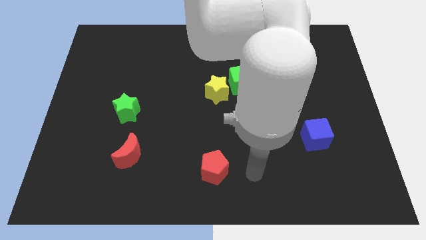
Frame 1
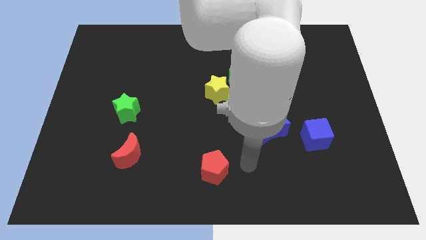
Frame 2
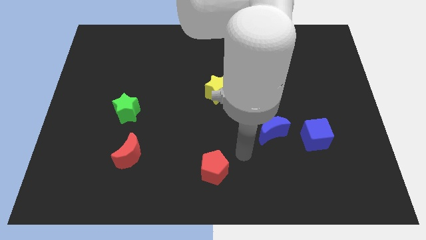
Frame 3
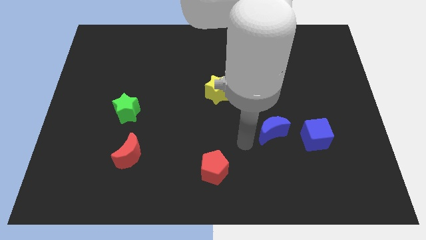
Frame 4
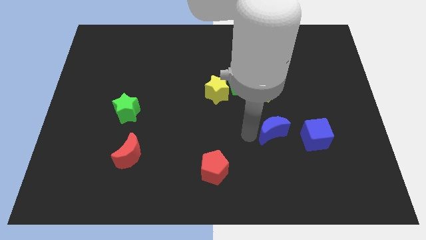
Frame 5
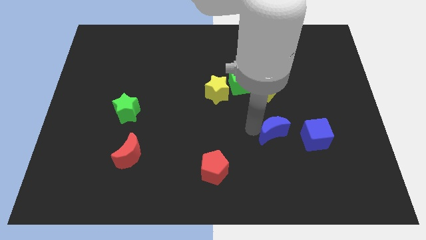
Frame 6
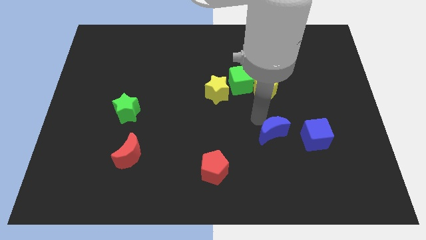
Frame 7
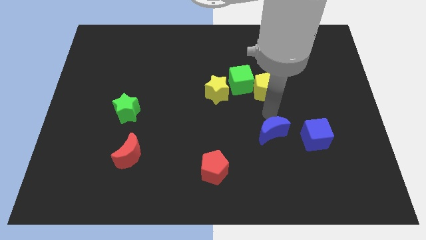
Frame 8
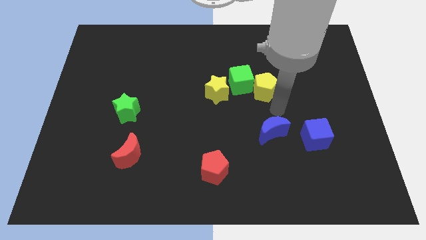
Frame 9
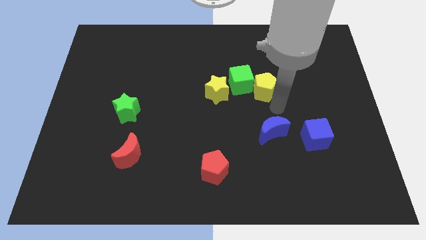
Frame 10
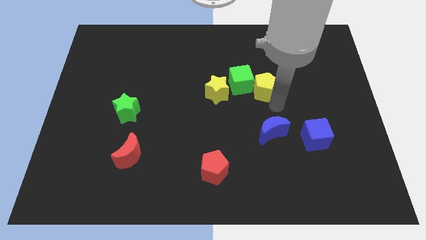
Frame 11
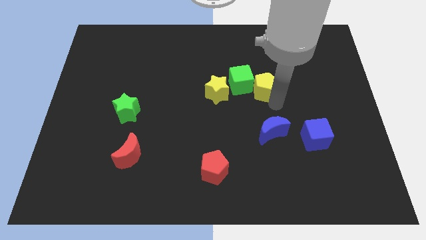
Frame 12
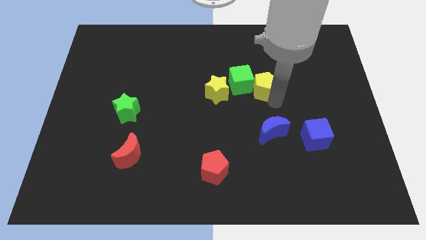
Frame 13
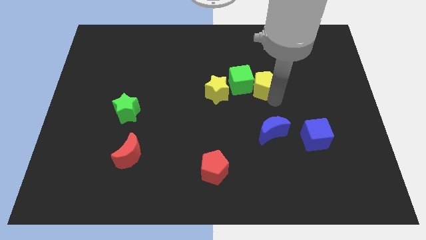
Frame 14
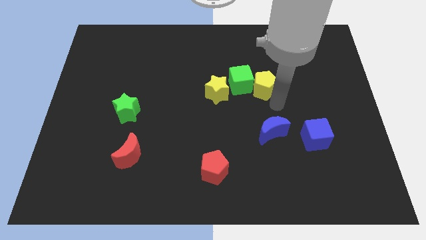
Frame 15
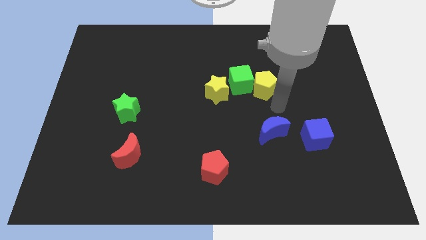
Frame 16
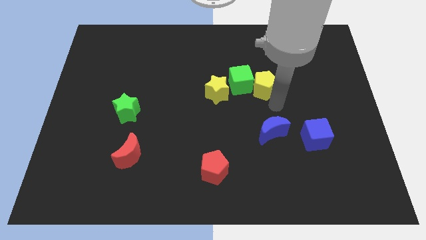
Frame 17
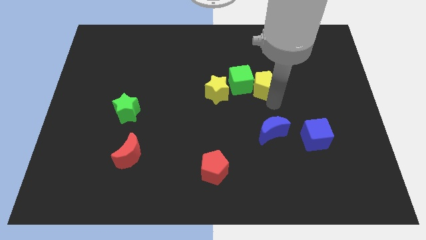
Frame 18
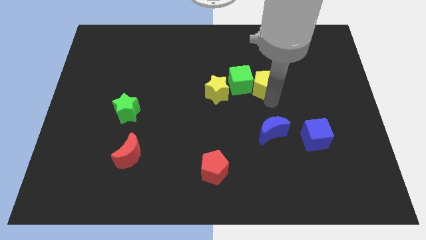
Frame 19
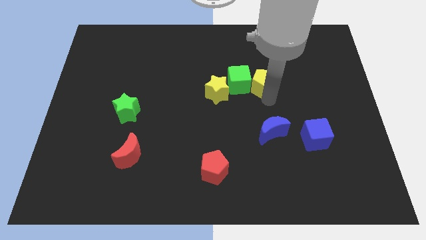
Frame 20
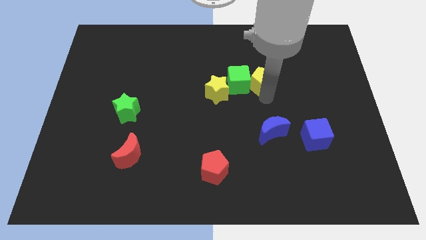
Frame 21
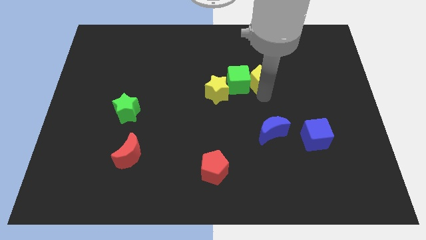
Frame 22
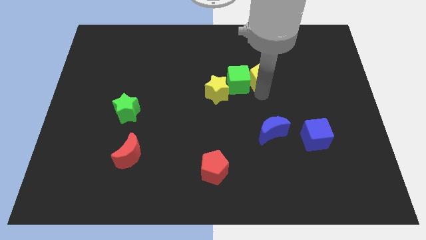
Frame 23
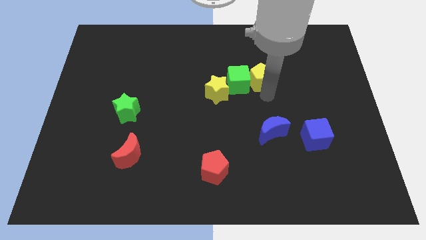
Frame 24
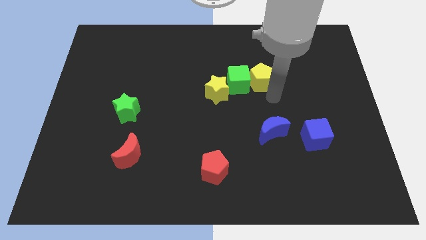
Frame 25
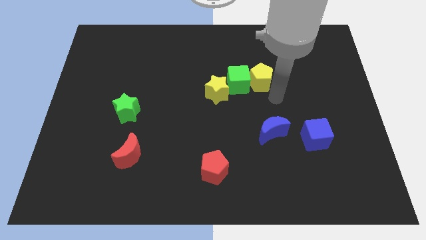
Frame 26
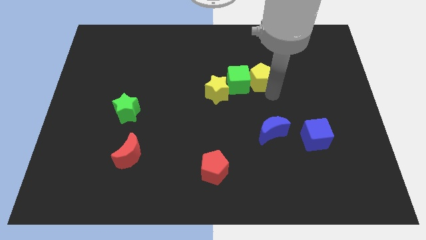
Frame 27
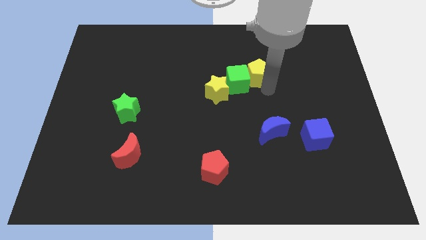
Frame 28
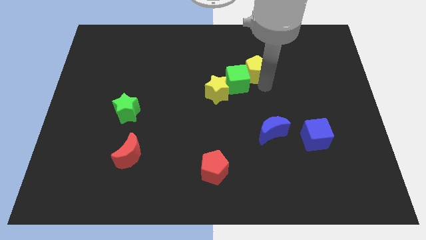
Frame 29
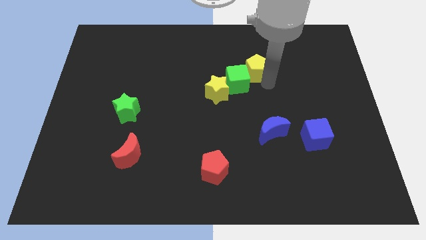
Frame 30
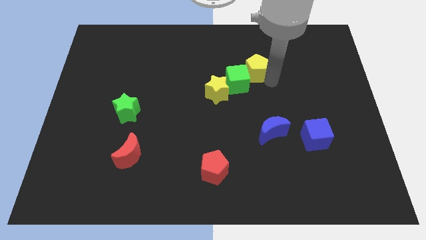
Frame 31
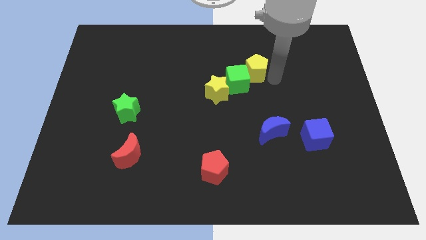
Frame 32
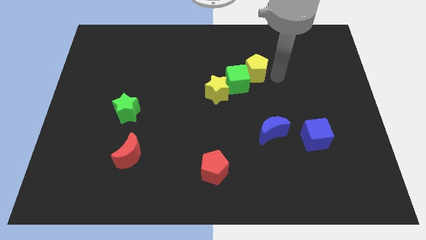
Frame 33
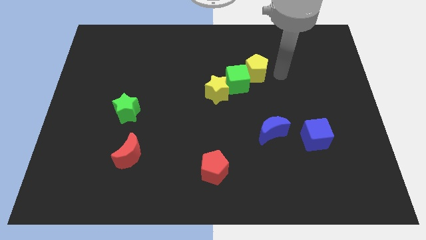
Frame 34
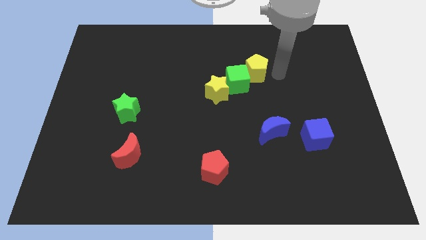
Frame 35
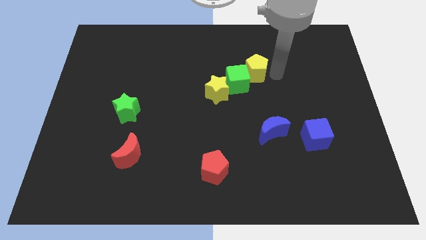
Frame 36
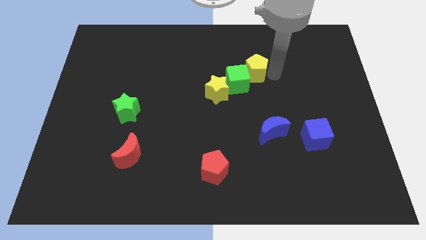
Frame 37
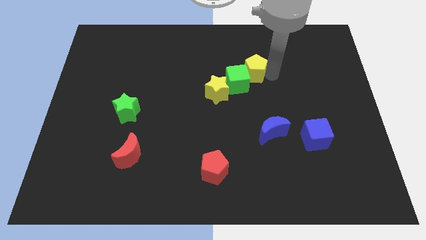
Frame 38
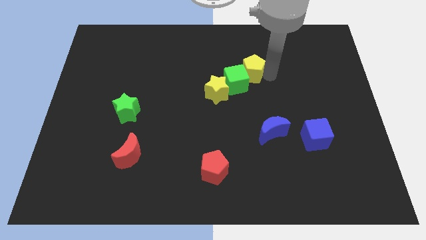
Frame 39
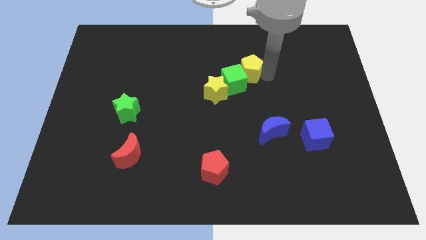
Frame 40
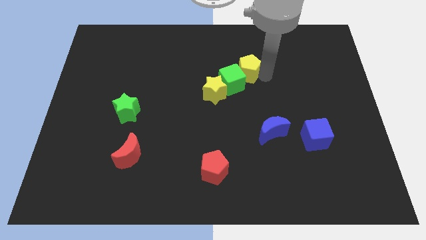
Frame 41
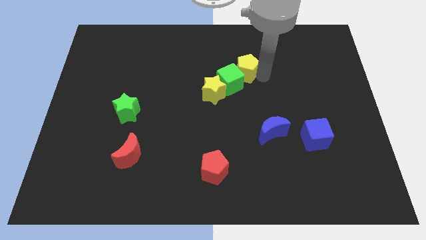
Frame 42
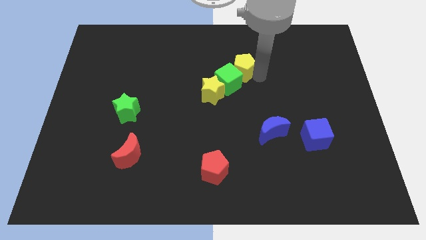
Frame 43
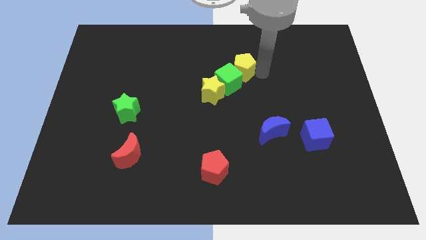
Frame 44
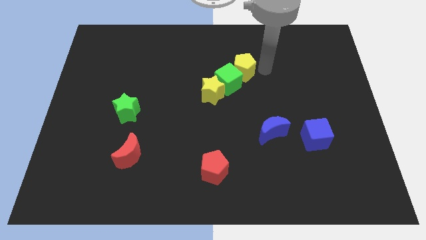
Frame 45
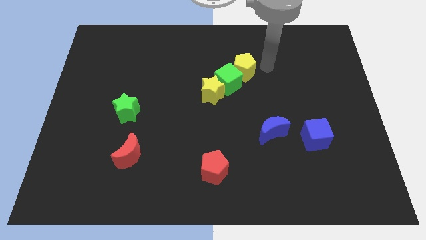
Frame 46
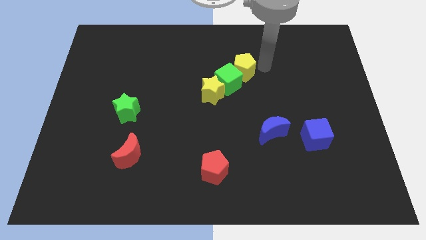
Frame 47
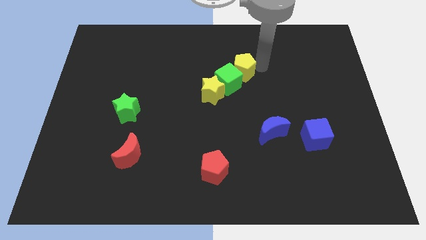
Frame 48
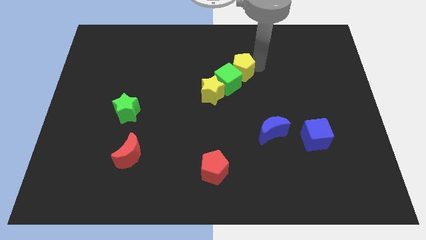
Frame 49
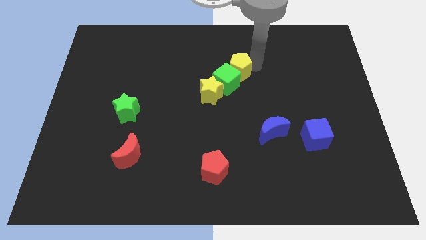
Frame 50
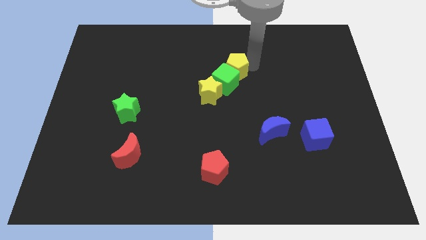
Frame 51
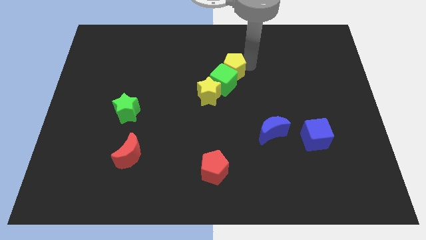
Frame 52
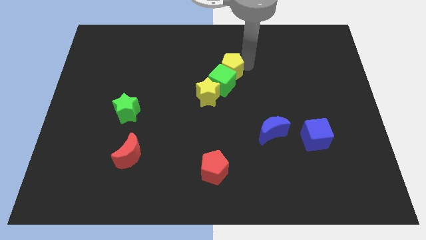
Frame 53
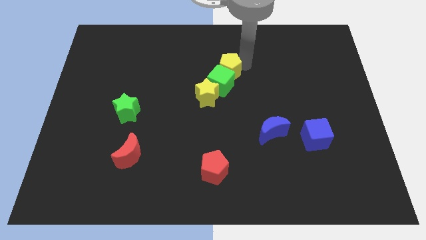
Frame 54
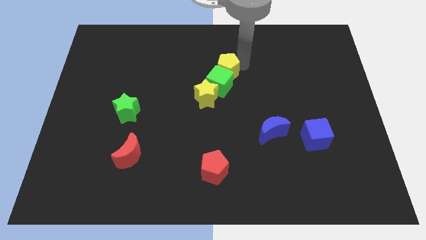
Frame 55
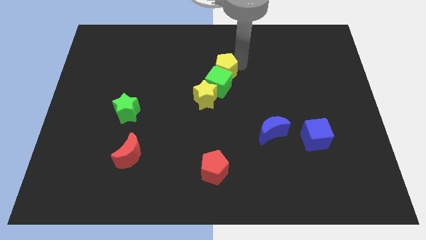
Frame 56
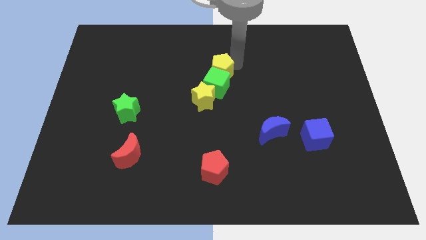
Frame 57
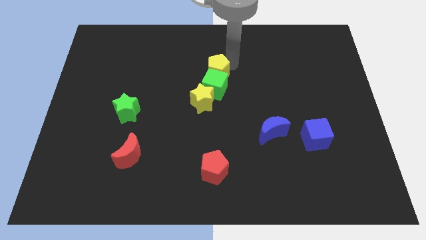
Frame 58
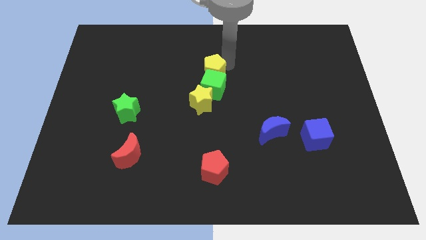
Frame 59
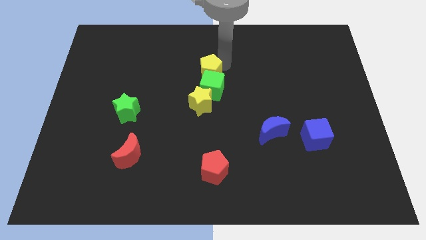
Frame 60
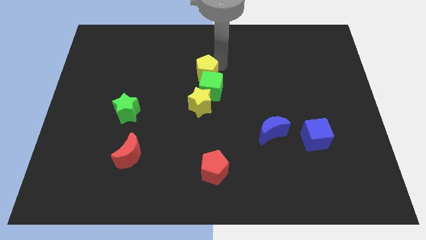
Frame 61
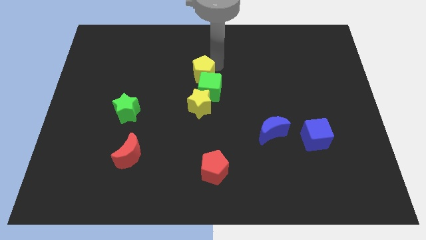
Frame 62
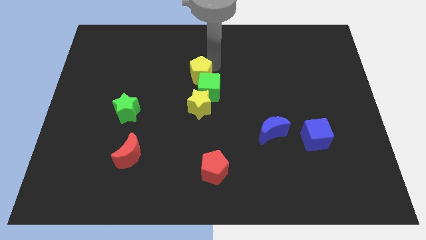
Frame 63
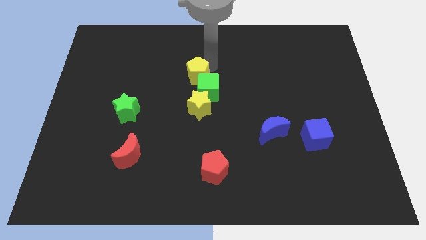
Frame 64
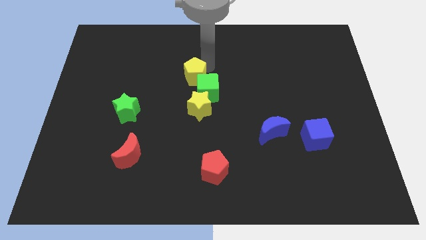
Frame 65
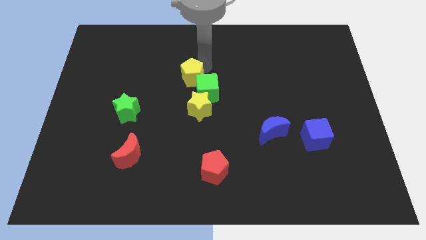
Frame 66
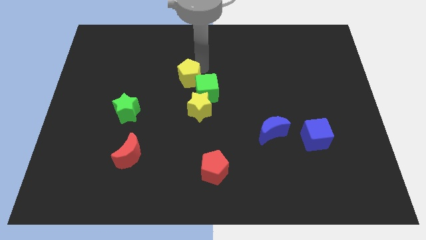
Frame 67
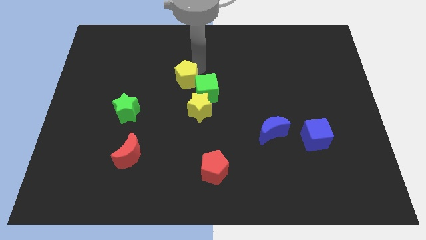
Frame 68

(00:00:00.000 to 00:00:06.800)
move the yellow pentagon to the top left of the yellow star

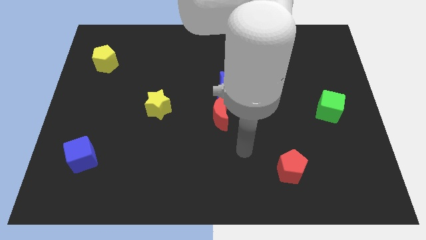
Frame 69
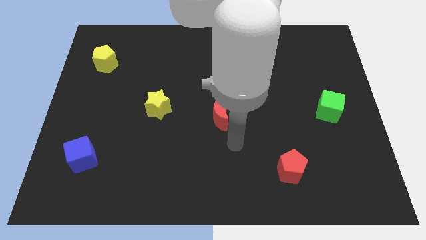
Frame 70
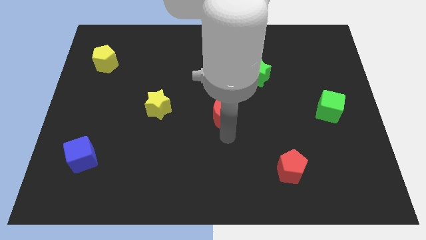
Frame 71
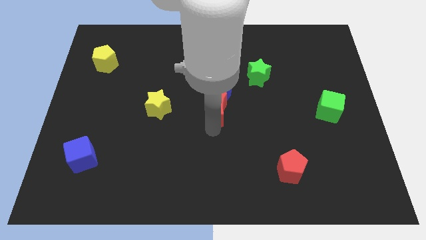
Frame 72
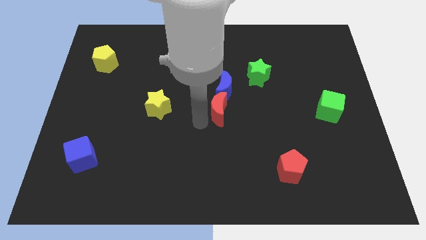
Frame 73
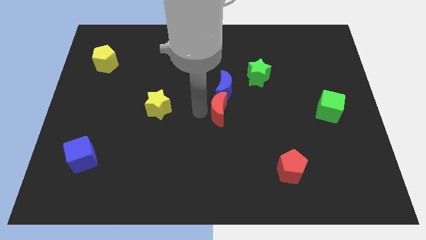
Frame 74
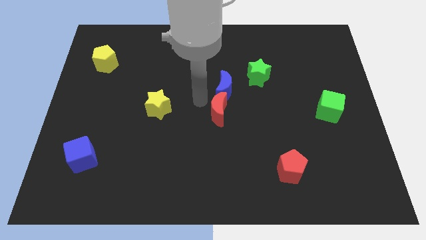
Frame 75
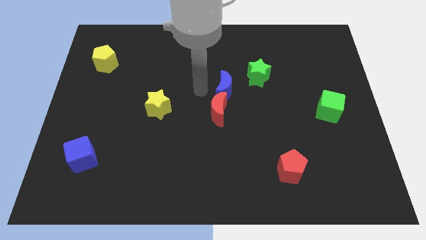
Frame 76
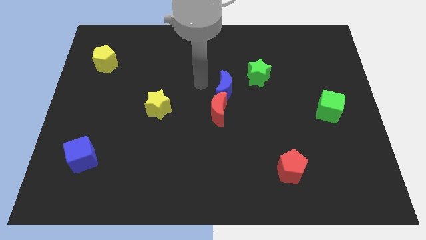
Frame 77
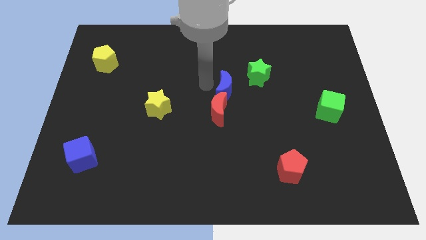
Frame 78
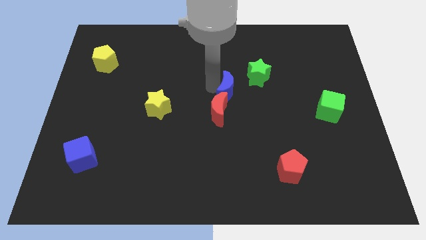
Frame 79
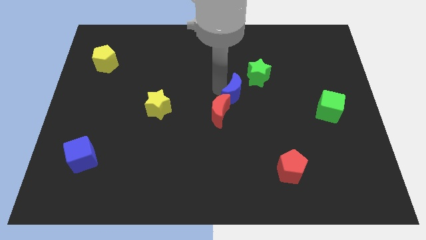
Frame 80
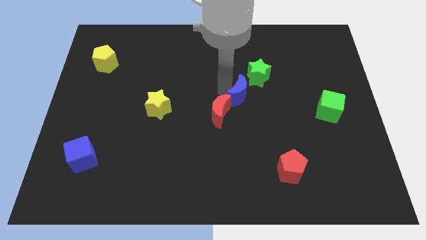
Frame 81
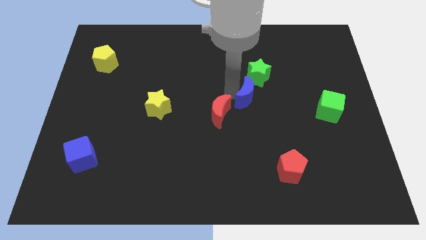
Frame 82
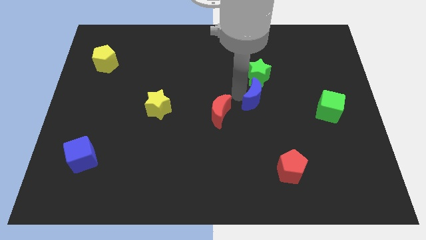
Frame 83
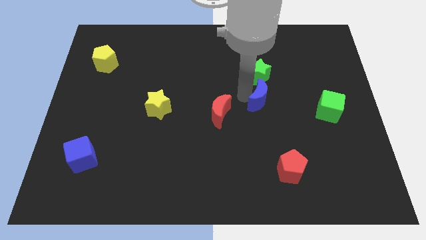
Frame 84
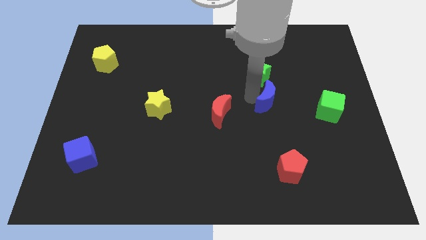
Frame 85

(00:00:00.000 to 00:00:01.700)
slide the blue moon left of the green cube
